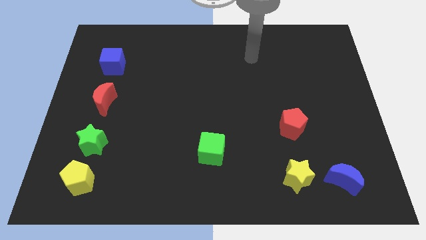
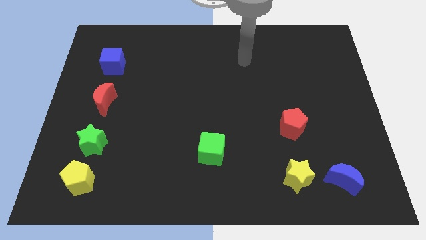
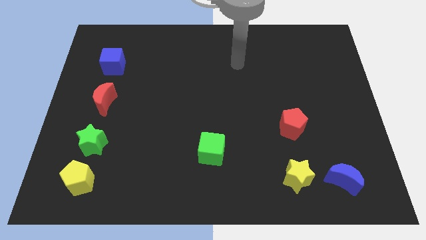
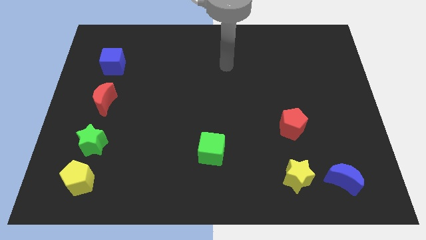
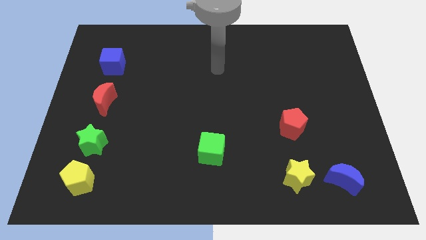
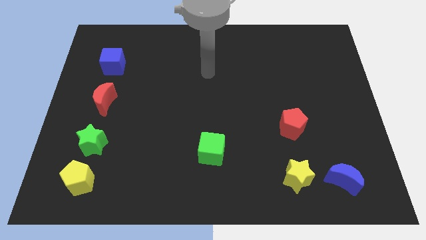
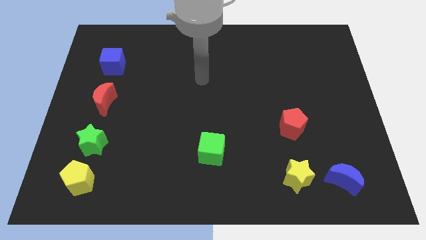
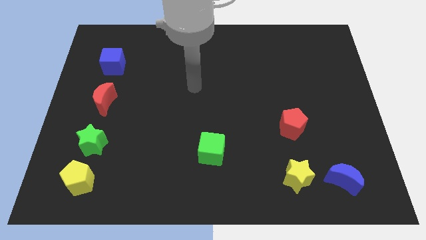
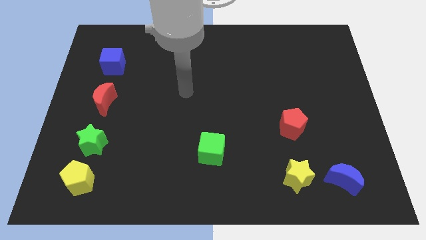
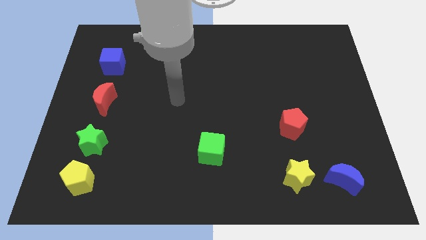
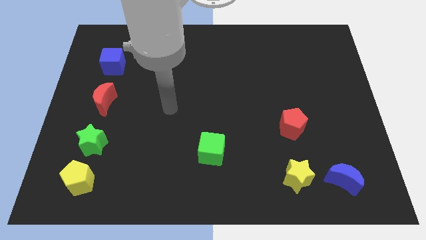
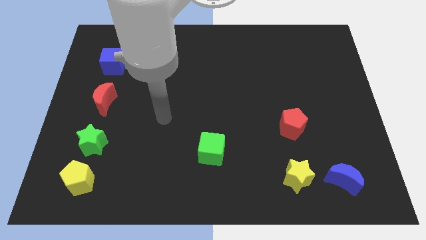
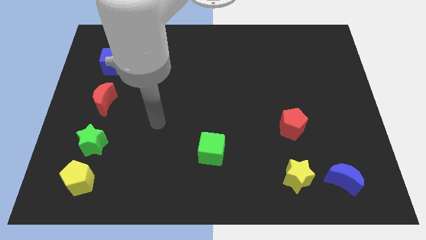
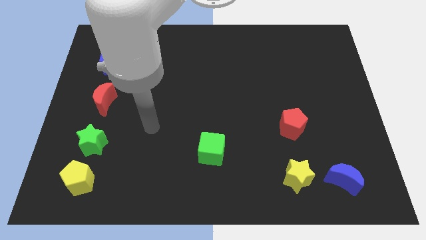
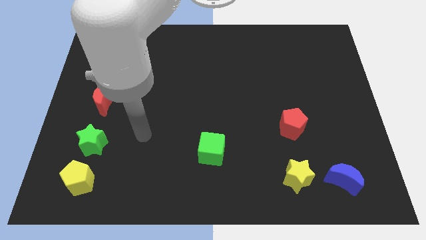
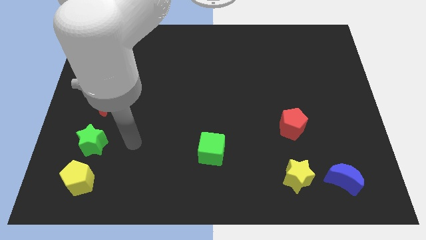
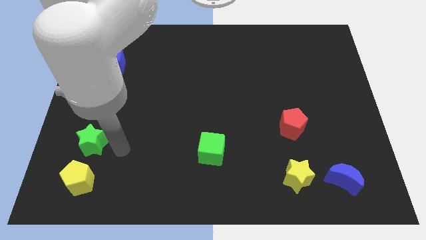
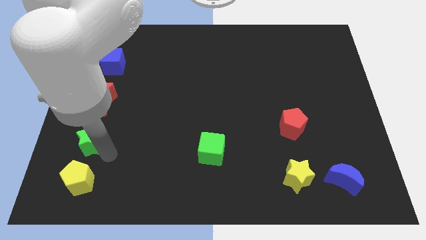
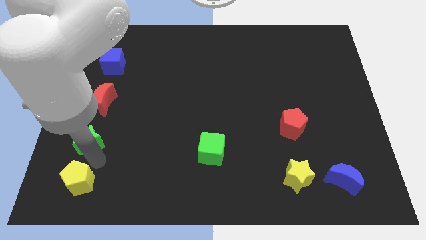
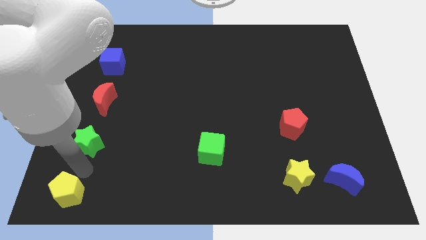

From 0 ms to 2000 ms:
pull the green star apart from the yellow pentagon

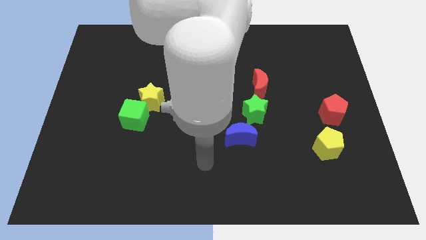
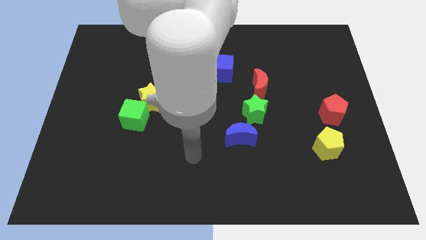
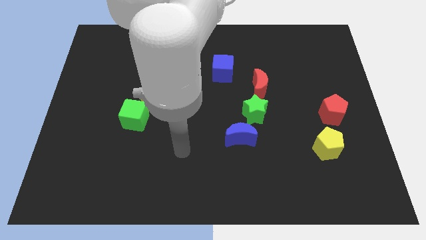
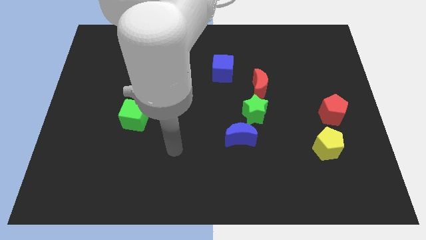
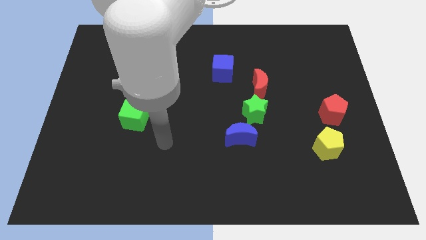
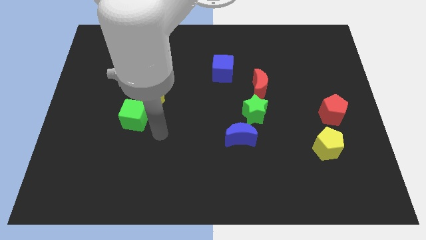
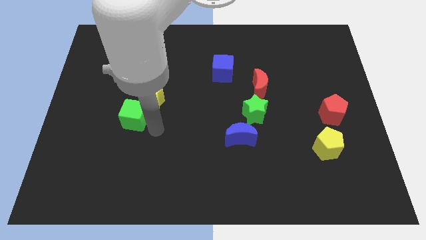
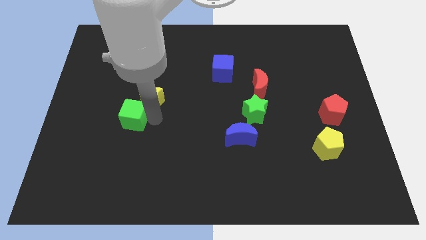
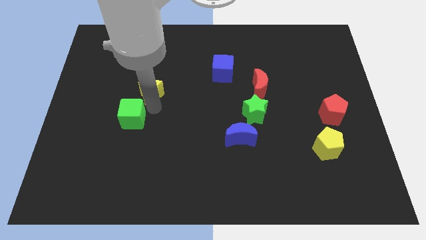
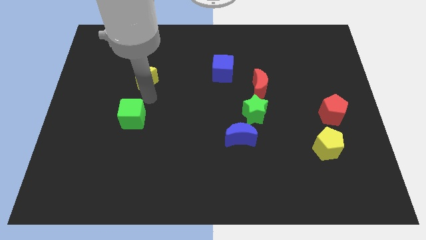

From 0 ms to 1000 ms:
move the green cube away from the yellow star

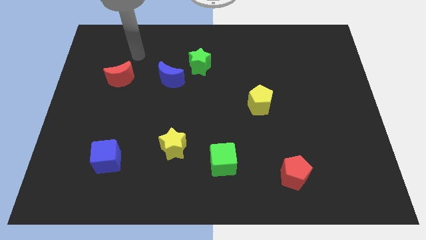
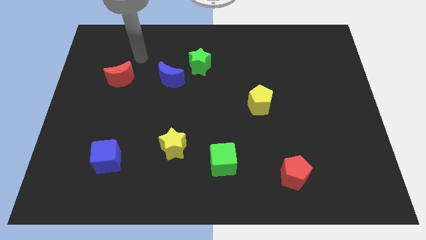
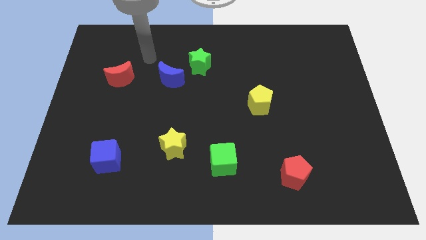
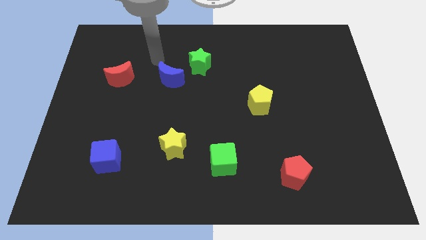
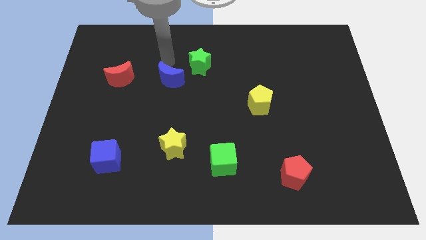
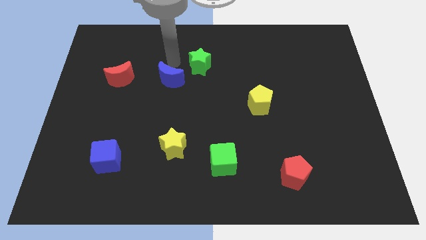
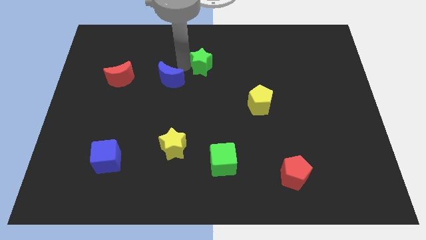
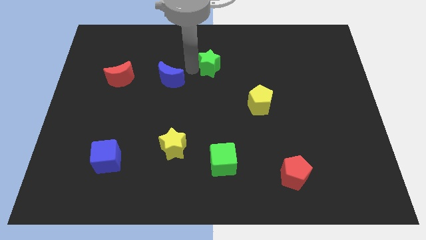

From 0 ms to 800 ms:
move the blue moon away from the green star

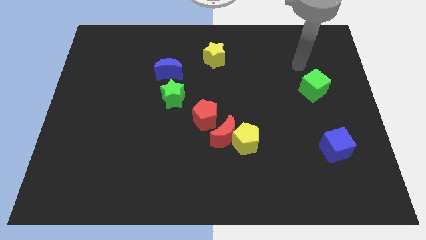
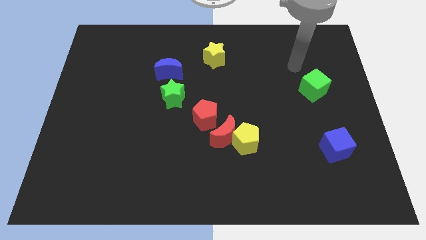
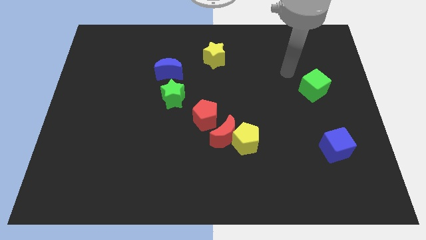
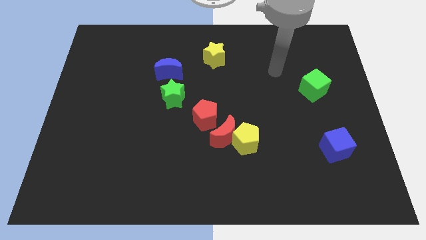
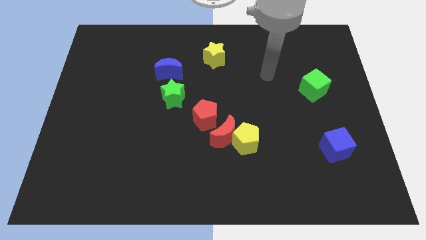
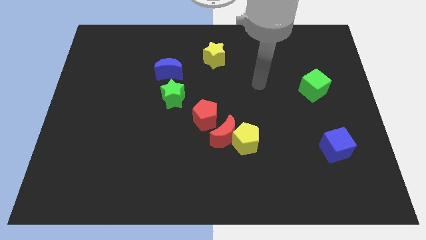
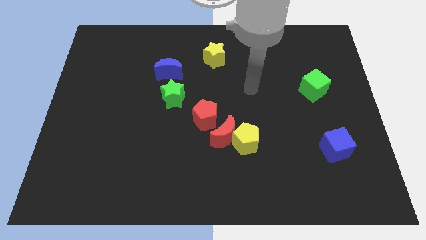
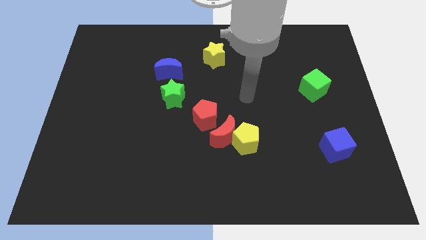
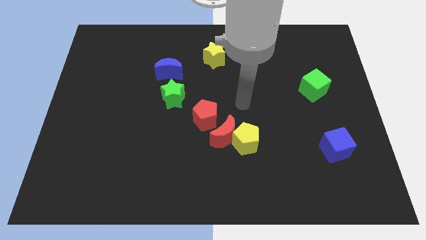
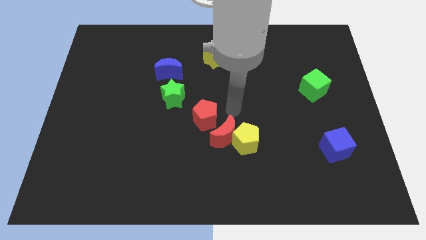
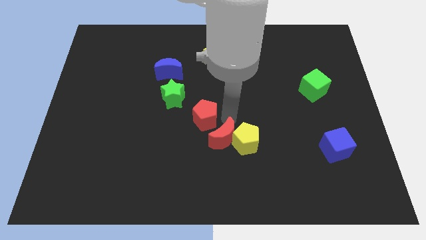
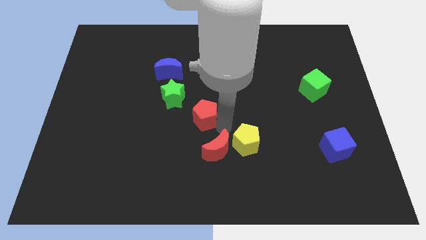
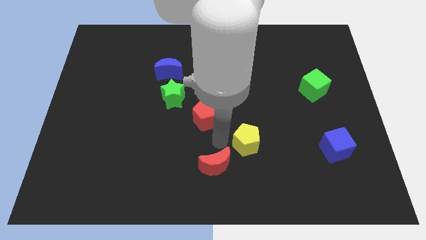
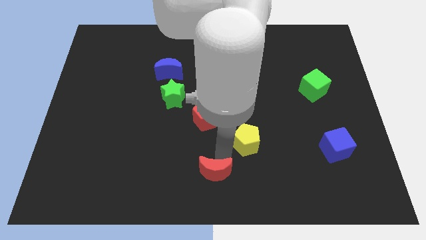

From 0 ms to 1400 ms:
move the yellow pentagon away from the red moon

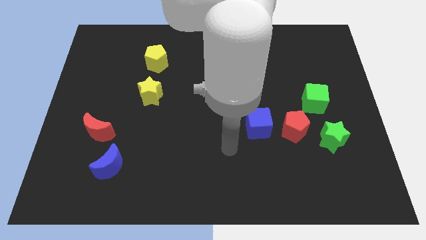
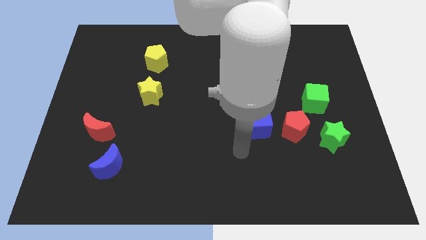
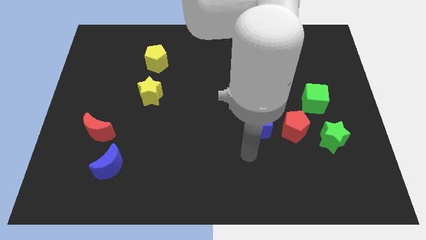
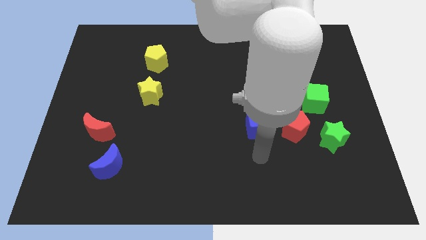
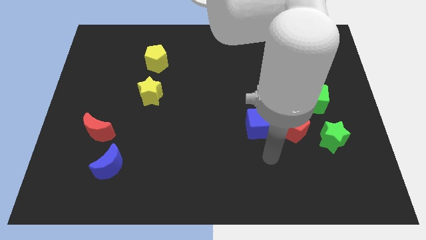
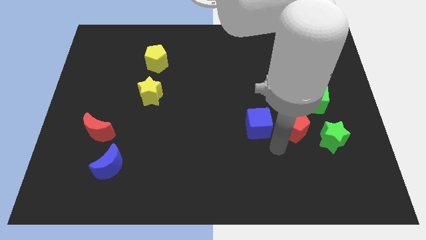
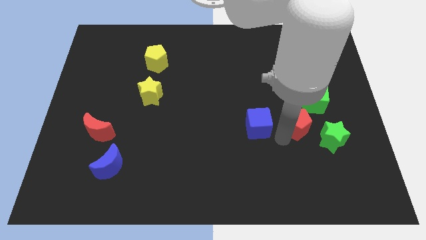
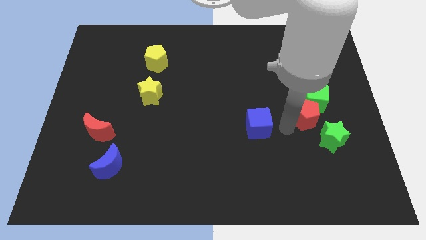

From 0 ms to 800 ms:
pull the blue cube apart from the red pentagon

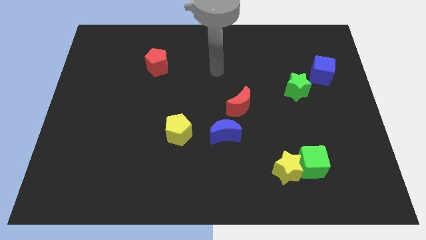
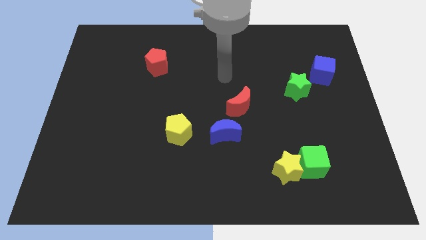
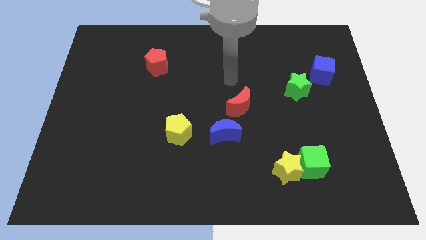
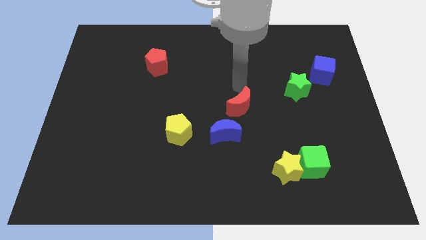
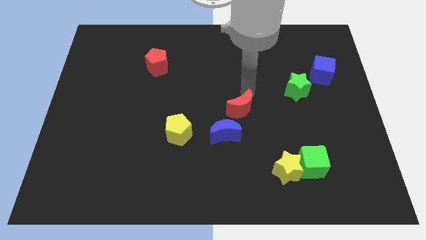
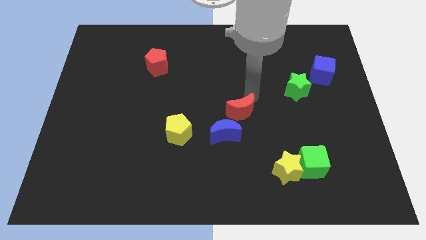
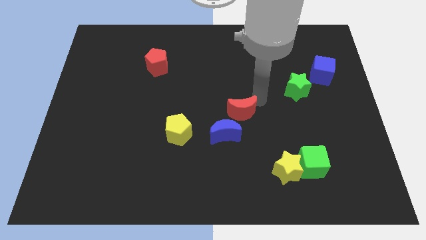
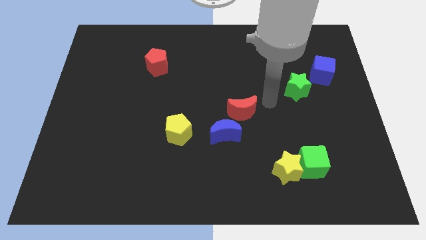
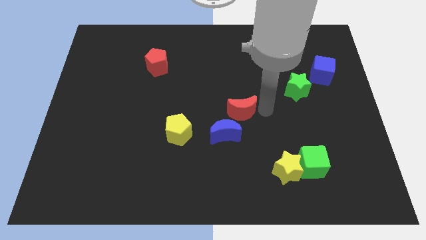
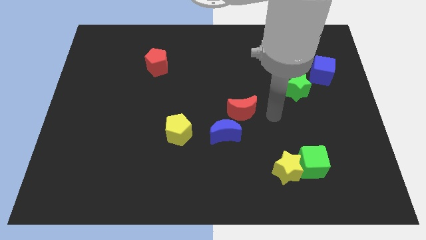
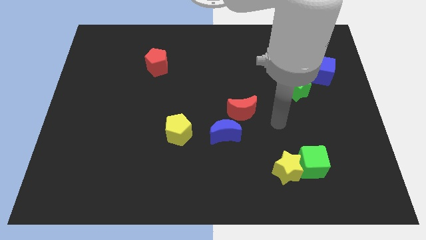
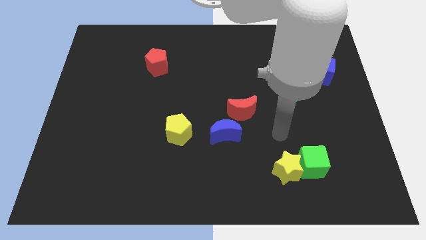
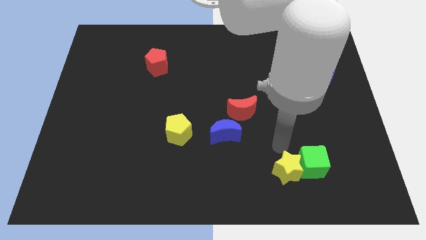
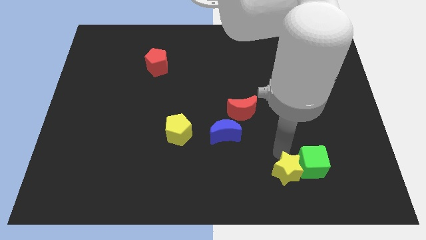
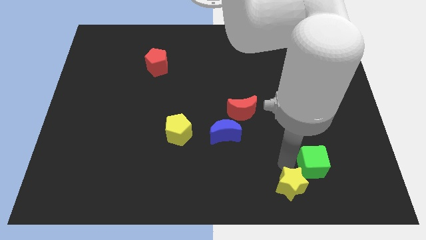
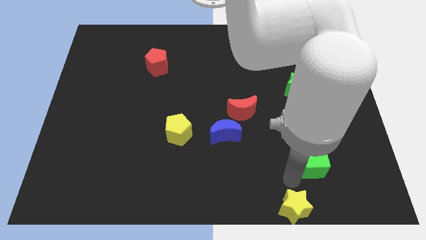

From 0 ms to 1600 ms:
separate the green cube from the yellow star

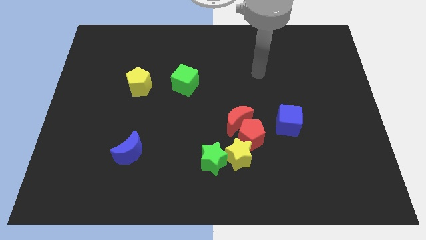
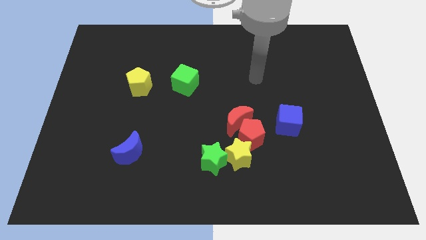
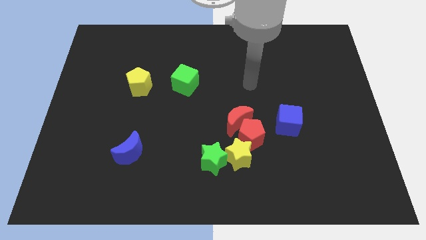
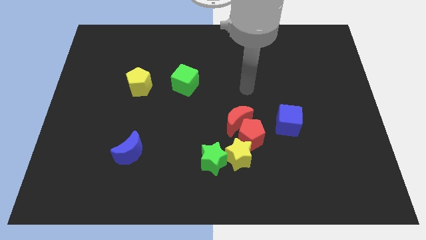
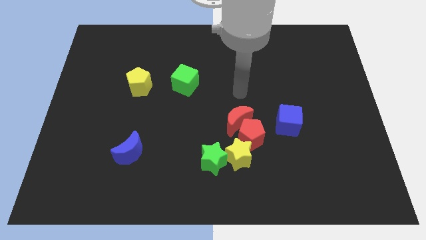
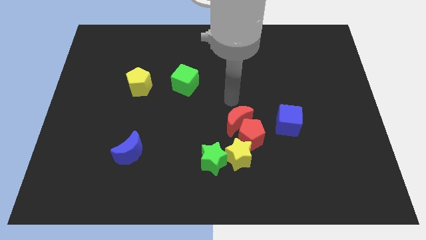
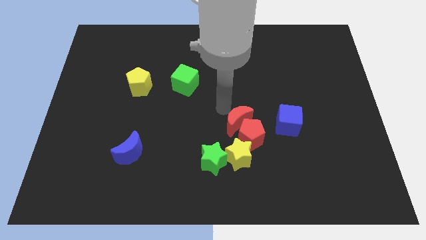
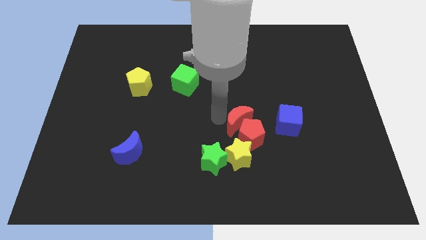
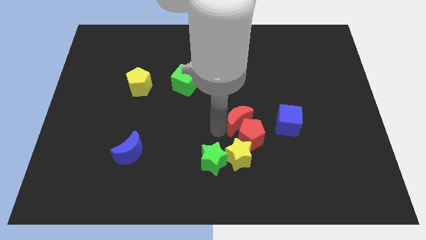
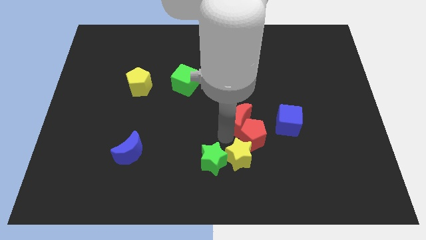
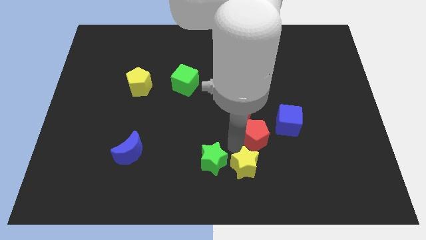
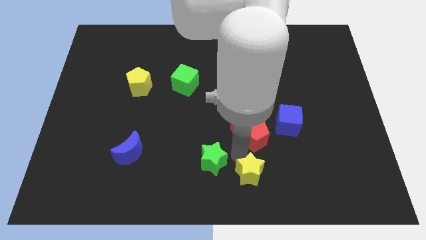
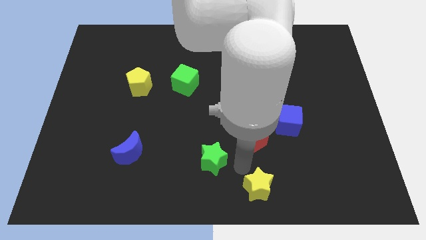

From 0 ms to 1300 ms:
pull the green star apart from the yellow star

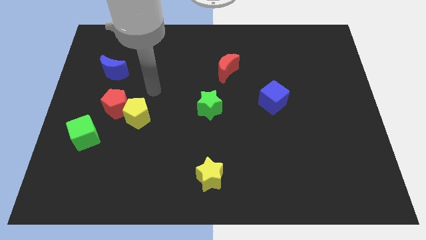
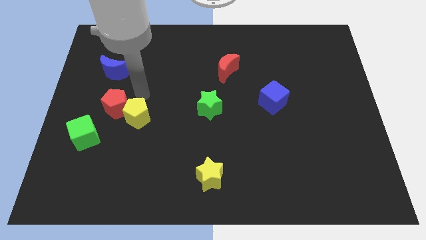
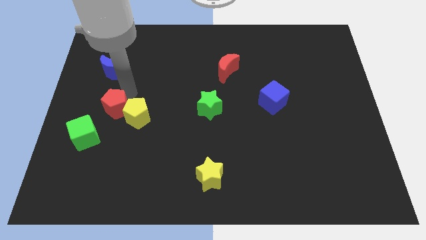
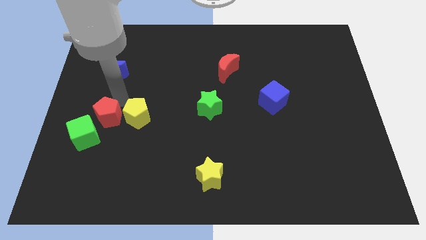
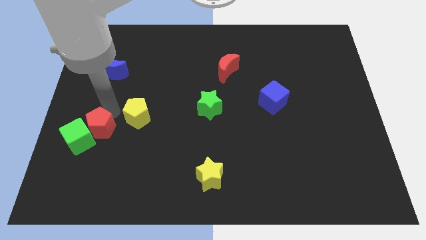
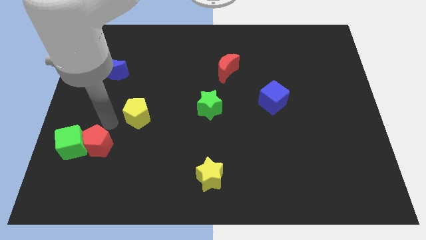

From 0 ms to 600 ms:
move the yellow pentagon away from the red pentagon
